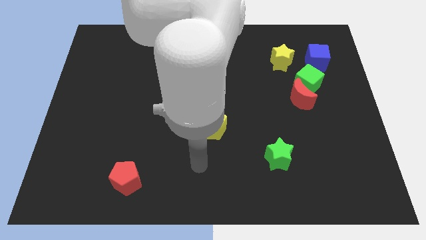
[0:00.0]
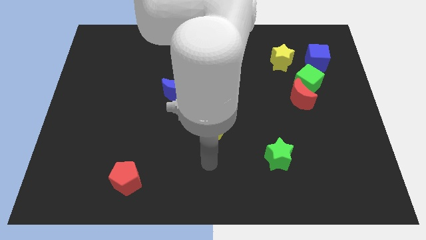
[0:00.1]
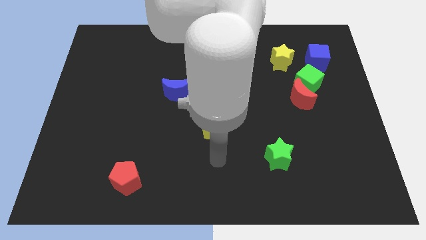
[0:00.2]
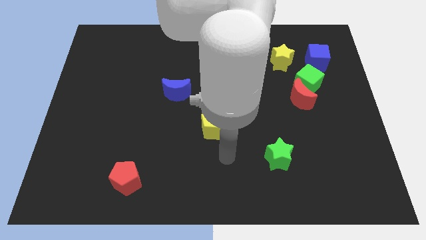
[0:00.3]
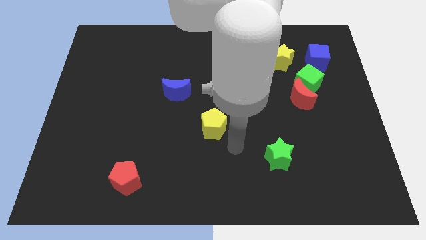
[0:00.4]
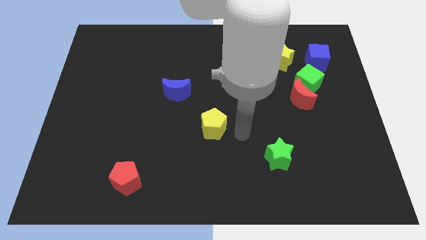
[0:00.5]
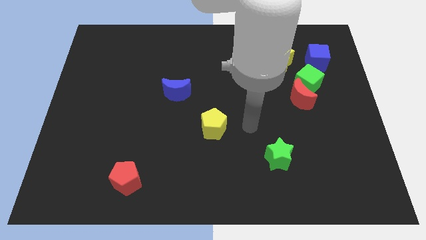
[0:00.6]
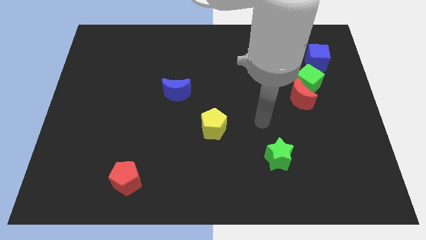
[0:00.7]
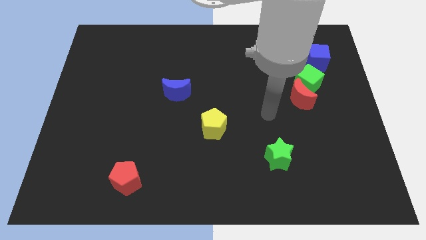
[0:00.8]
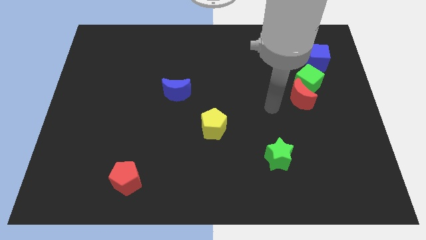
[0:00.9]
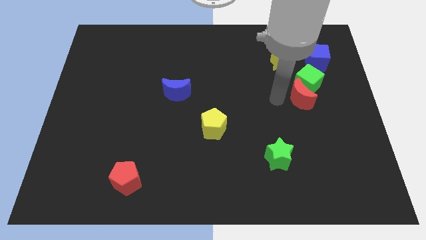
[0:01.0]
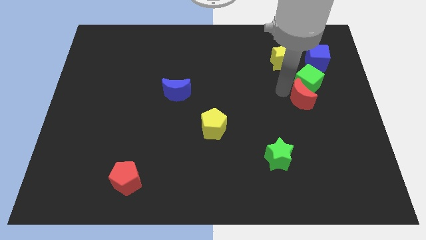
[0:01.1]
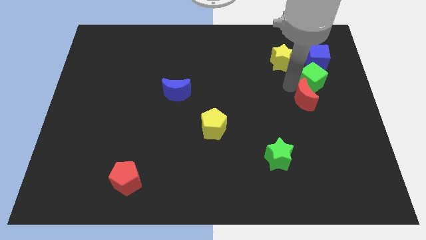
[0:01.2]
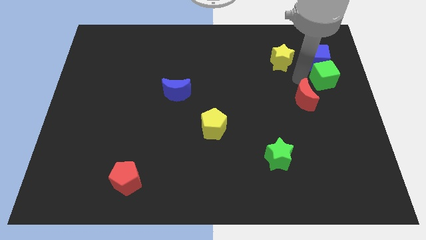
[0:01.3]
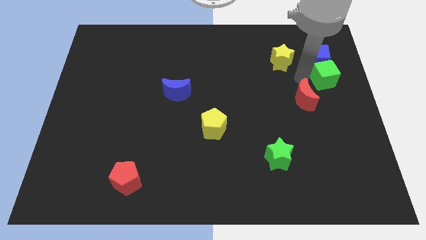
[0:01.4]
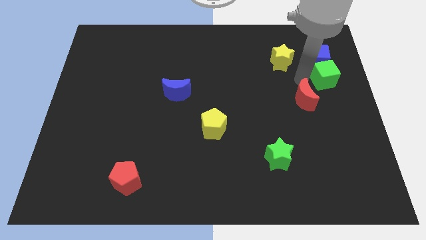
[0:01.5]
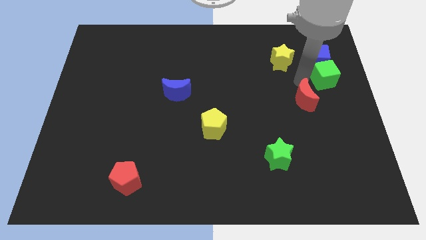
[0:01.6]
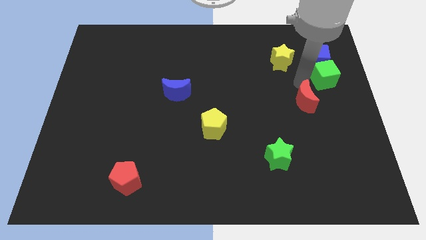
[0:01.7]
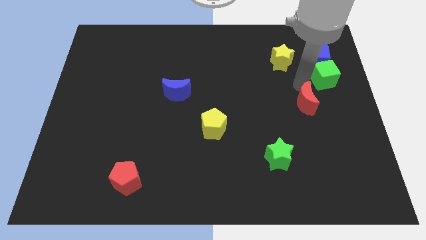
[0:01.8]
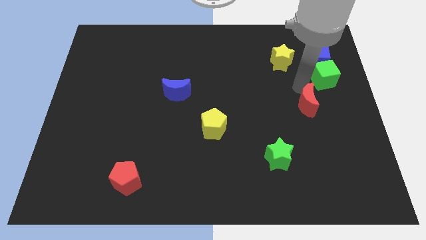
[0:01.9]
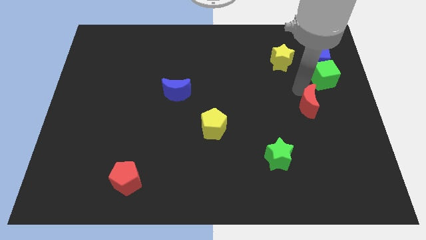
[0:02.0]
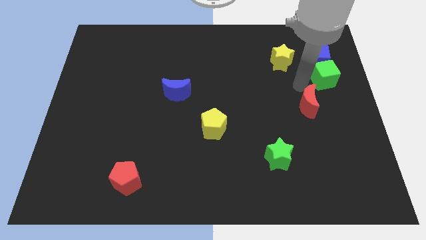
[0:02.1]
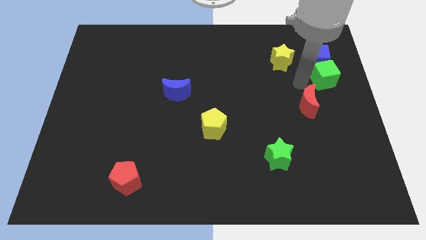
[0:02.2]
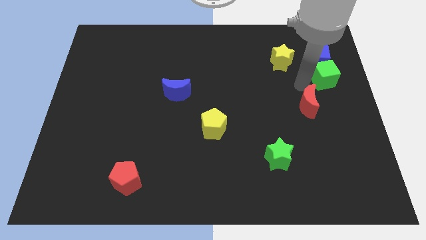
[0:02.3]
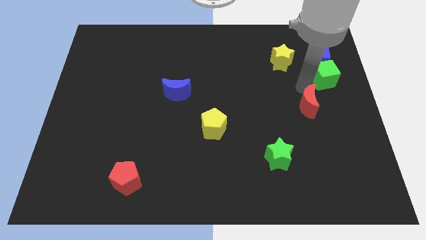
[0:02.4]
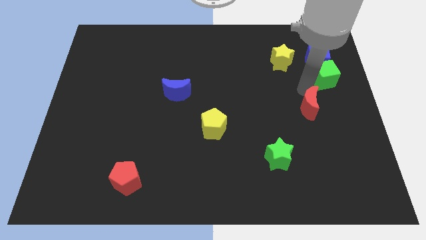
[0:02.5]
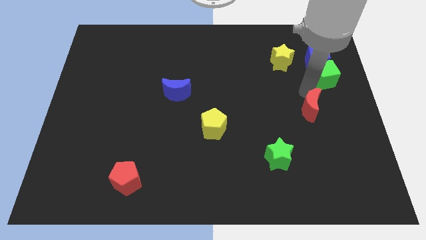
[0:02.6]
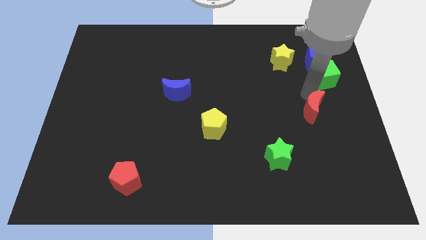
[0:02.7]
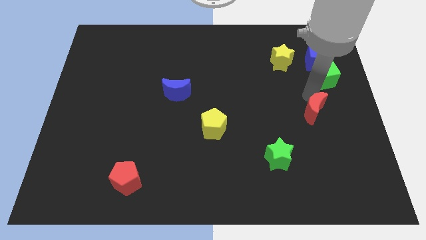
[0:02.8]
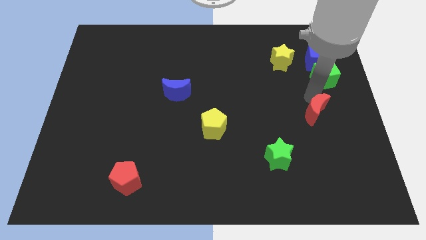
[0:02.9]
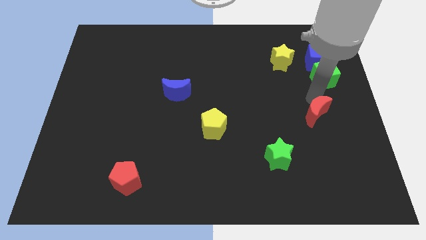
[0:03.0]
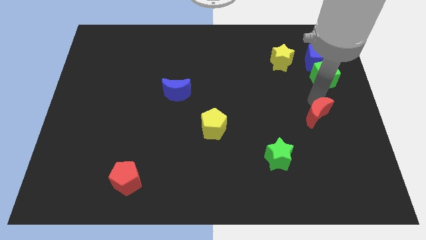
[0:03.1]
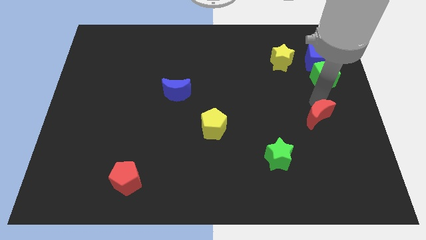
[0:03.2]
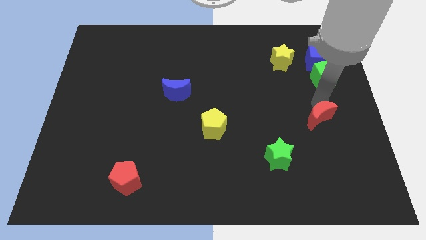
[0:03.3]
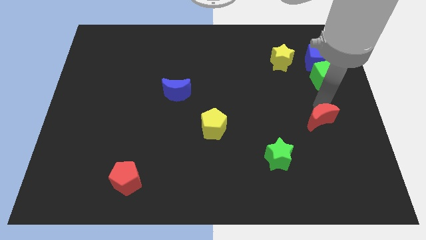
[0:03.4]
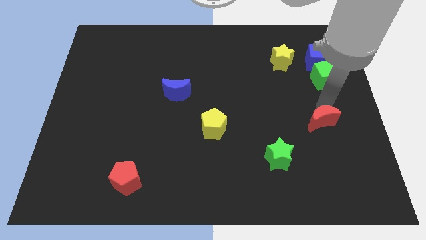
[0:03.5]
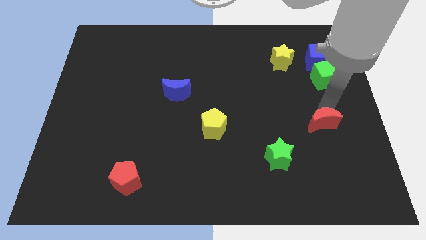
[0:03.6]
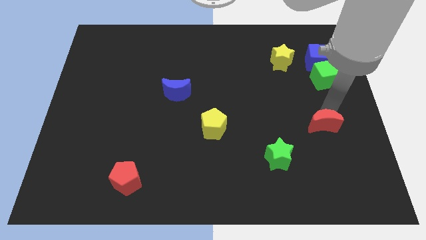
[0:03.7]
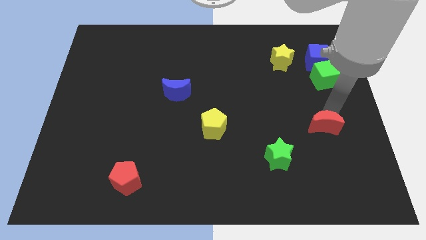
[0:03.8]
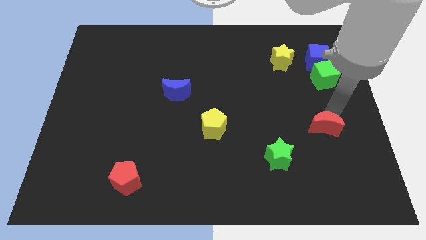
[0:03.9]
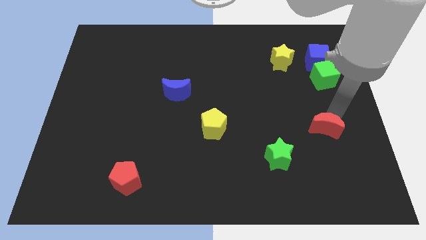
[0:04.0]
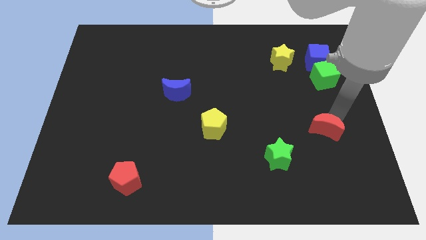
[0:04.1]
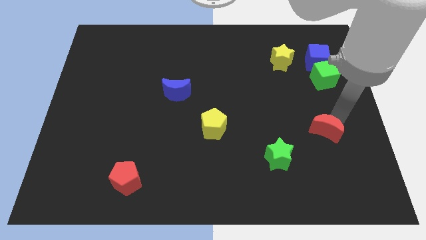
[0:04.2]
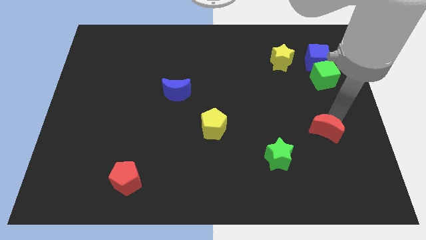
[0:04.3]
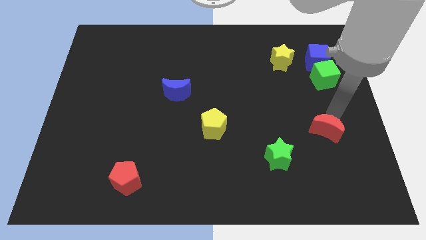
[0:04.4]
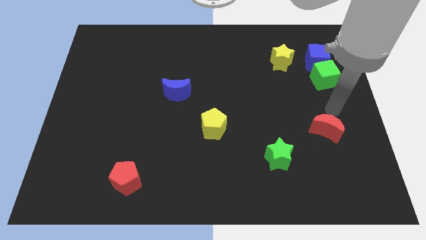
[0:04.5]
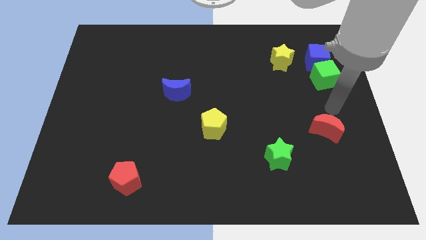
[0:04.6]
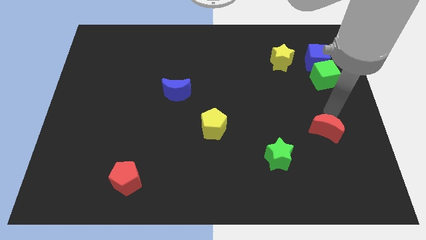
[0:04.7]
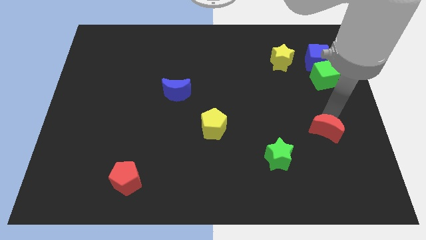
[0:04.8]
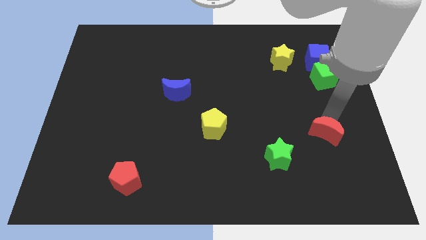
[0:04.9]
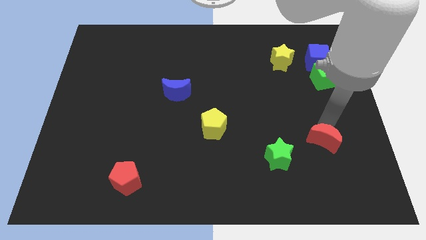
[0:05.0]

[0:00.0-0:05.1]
push the red moon to the right of the green star

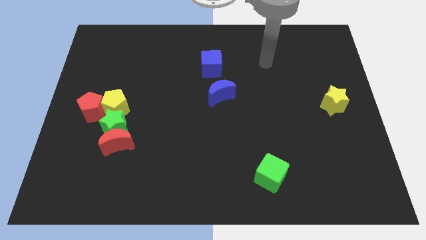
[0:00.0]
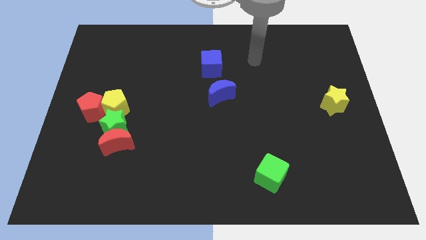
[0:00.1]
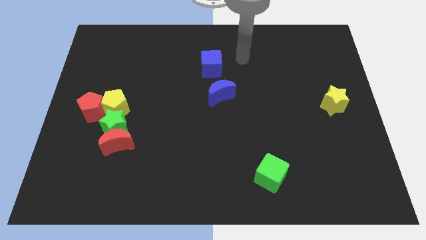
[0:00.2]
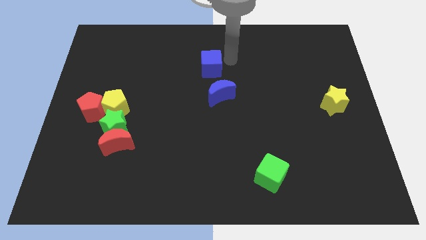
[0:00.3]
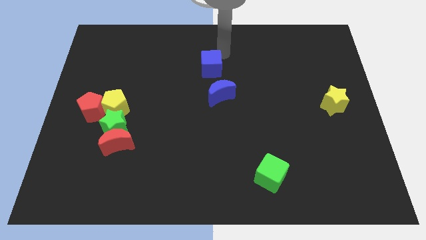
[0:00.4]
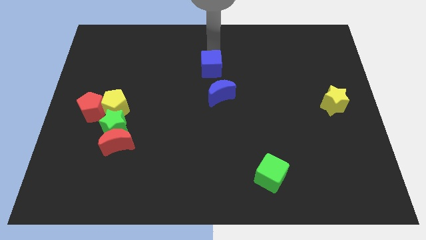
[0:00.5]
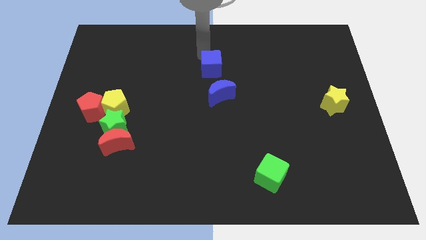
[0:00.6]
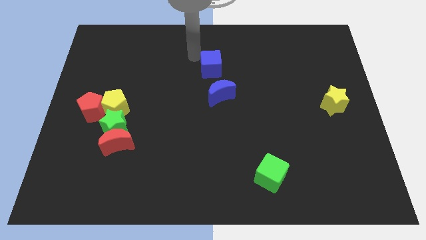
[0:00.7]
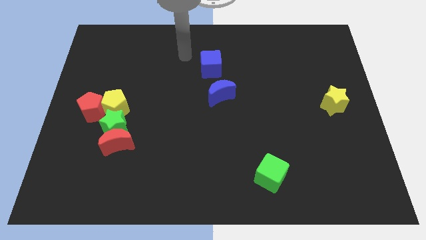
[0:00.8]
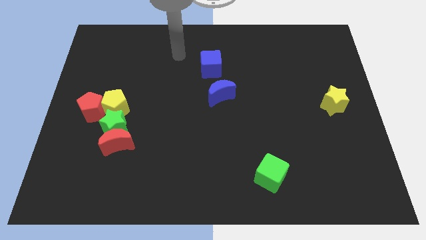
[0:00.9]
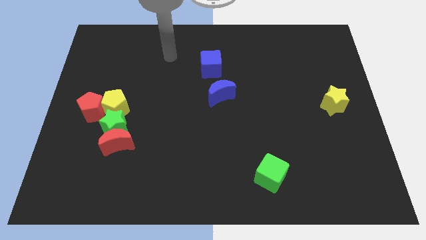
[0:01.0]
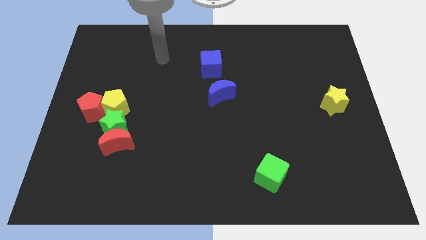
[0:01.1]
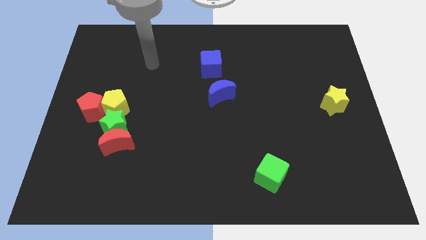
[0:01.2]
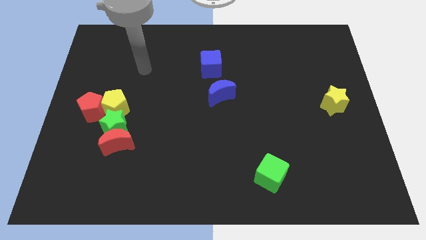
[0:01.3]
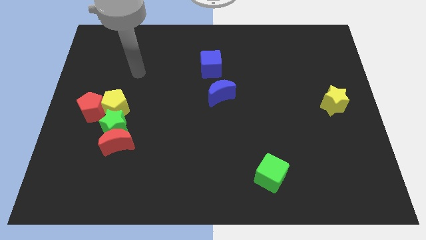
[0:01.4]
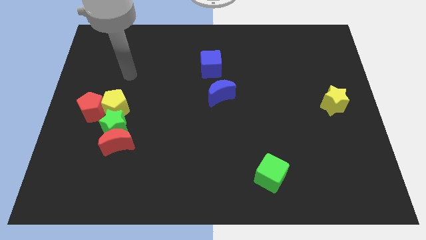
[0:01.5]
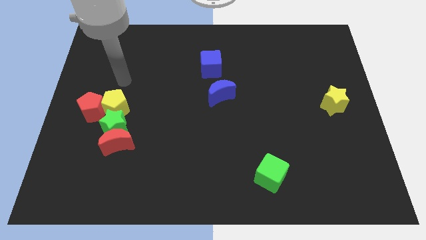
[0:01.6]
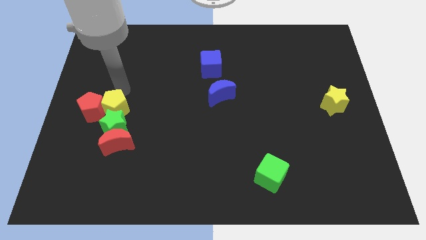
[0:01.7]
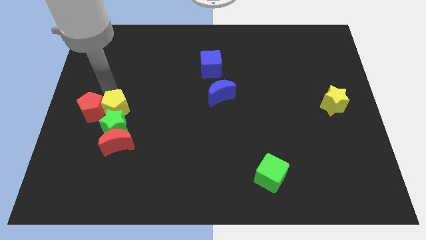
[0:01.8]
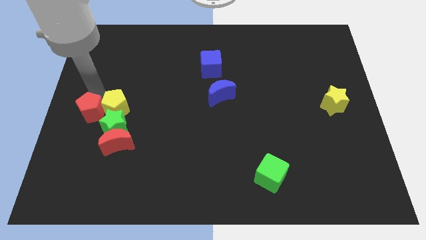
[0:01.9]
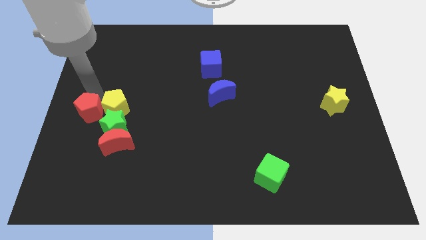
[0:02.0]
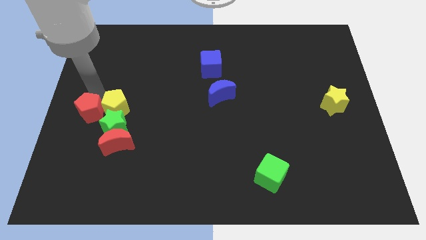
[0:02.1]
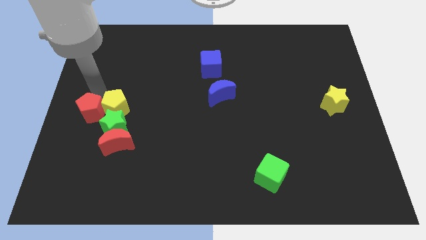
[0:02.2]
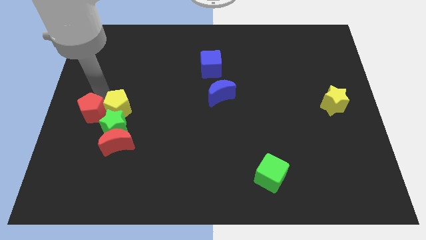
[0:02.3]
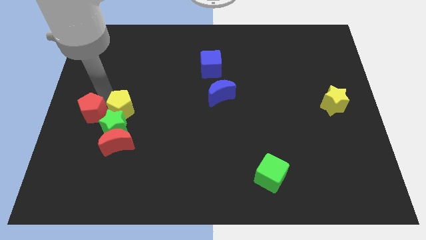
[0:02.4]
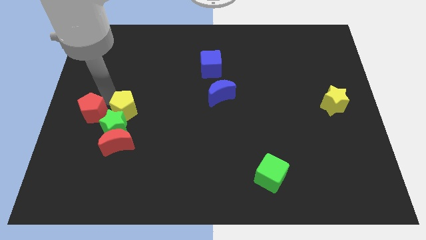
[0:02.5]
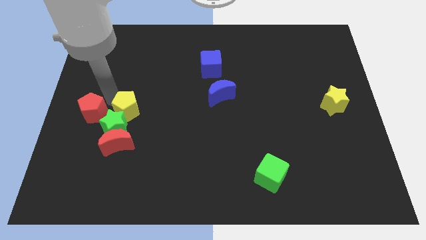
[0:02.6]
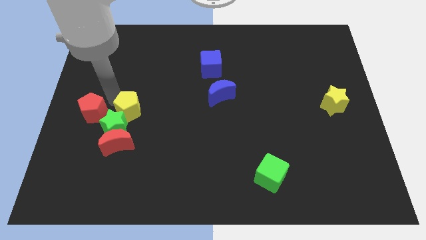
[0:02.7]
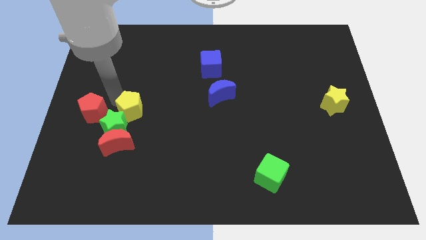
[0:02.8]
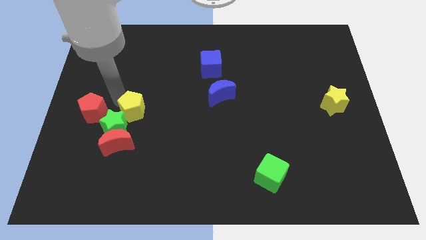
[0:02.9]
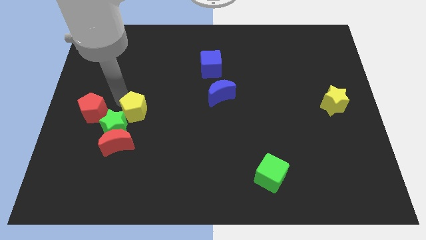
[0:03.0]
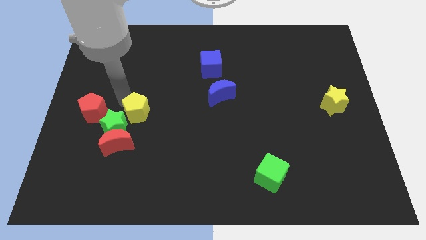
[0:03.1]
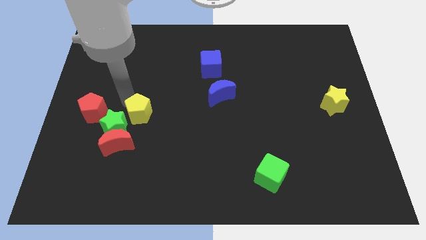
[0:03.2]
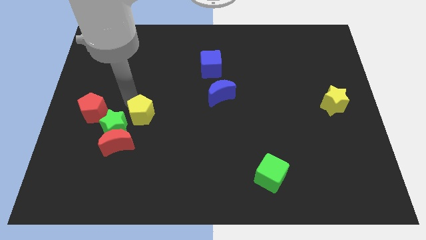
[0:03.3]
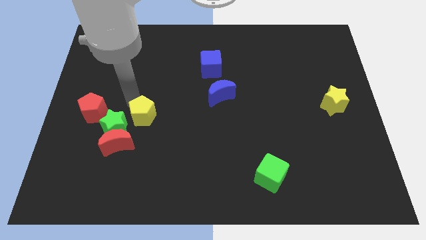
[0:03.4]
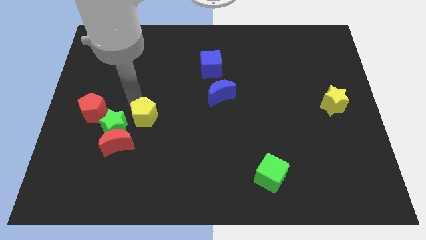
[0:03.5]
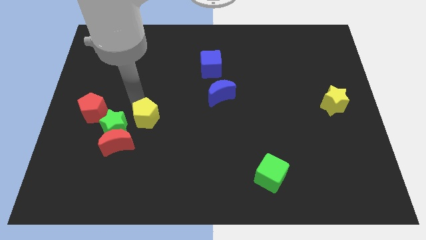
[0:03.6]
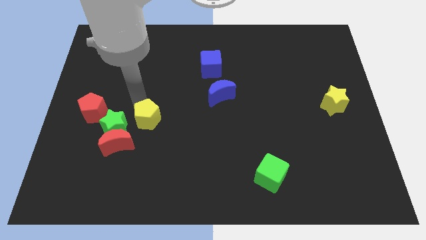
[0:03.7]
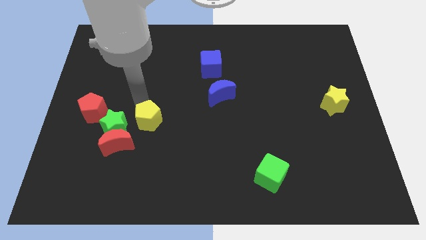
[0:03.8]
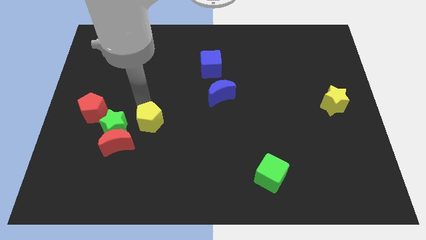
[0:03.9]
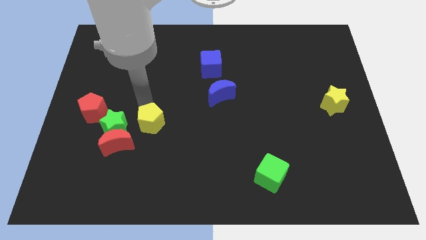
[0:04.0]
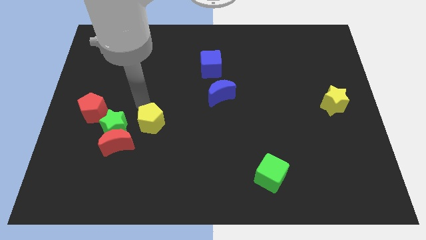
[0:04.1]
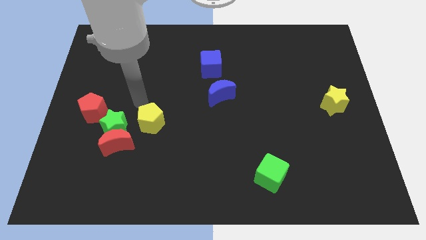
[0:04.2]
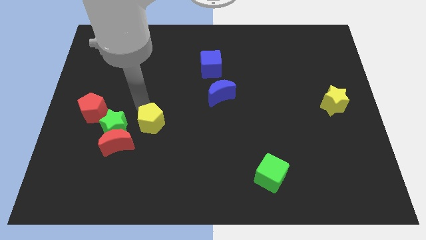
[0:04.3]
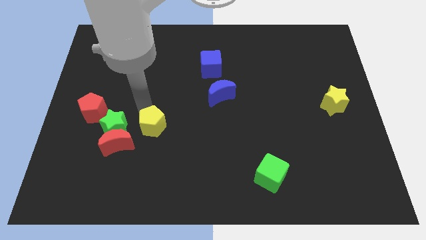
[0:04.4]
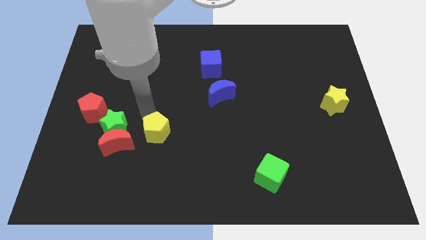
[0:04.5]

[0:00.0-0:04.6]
push the yellow pentagon to the right side of the red moon
